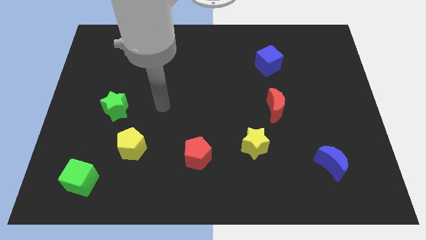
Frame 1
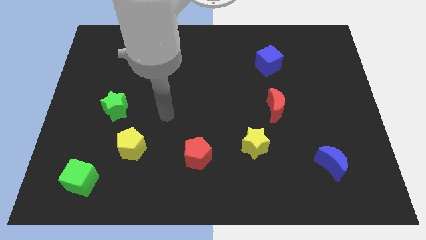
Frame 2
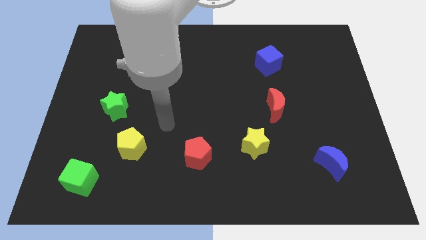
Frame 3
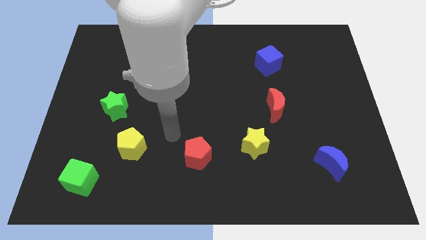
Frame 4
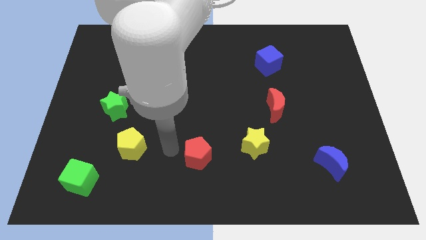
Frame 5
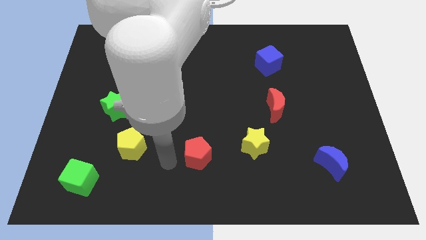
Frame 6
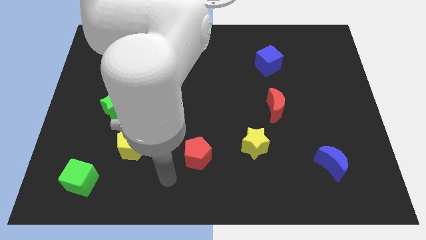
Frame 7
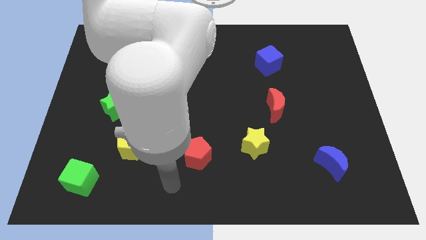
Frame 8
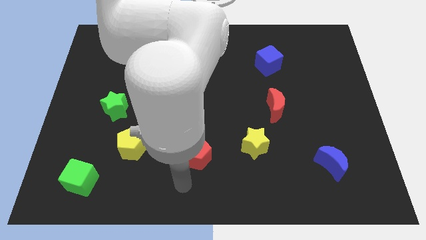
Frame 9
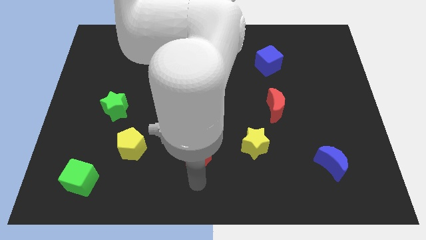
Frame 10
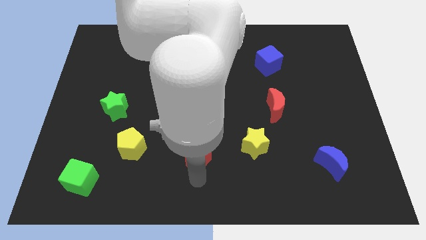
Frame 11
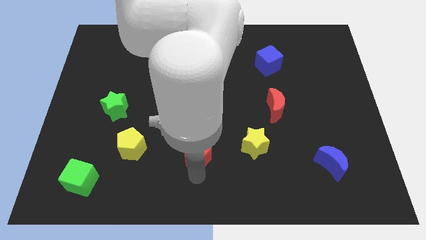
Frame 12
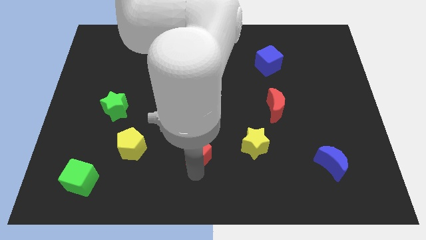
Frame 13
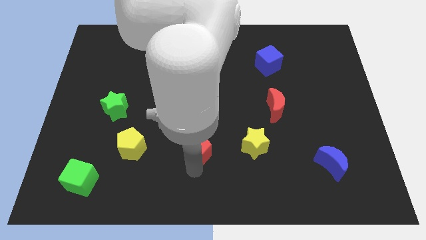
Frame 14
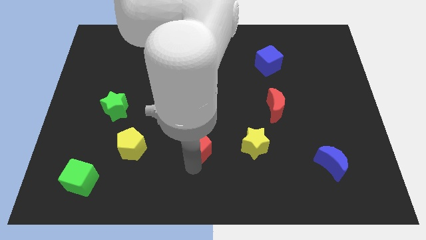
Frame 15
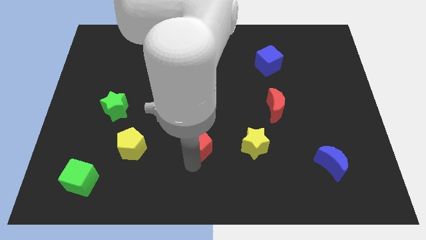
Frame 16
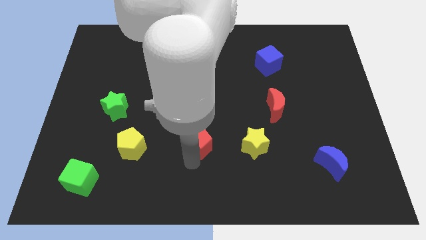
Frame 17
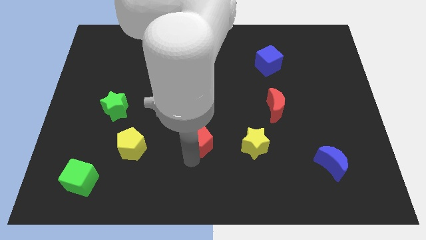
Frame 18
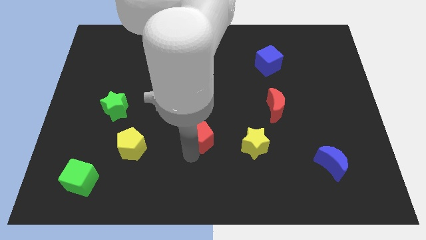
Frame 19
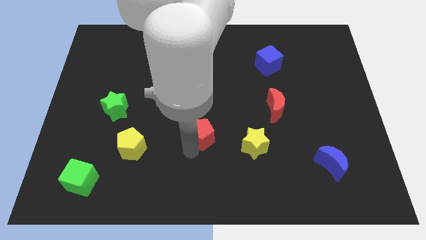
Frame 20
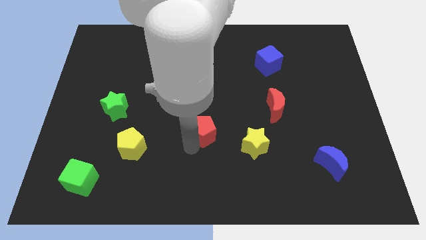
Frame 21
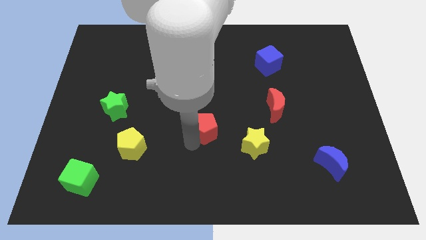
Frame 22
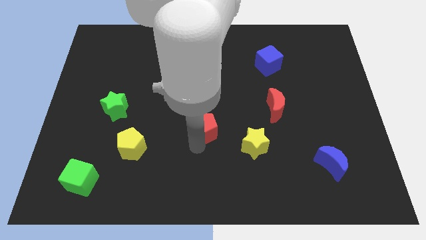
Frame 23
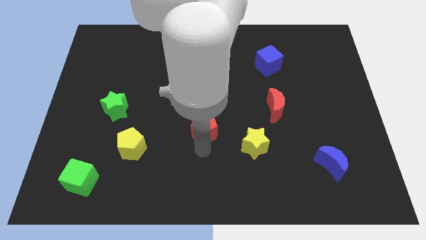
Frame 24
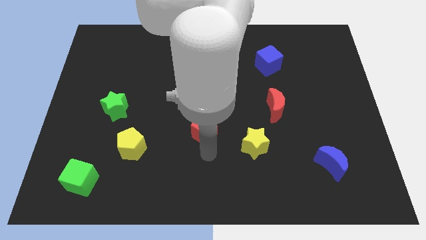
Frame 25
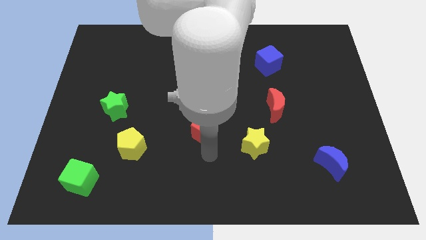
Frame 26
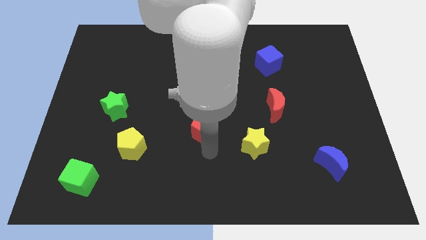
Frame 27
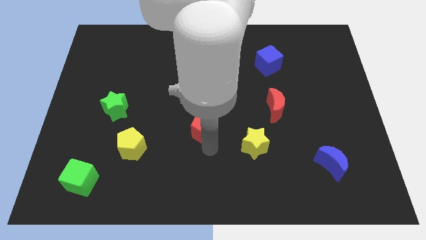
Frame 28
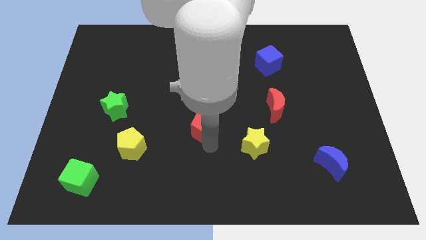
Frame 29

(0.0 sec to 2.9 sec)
push the red pentagon upwards a little

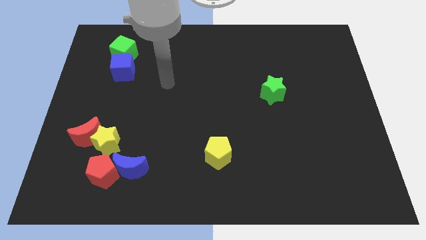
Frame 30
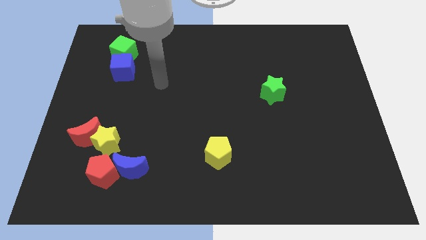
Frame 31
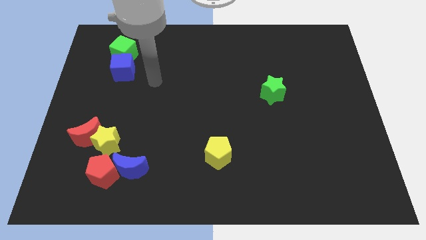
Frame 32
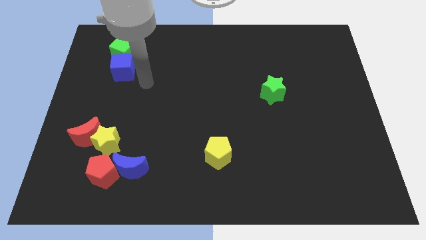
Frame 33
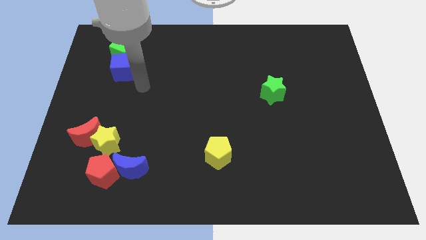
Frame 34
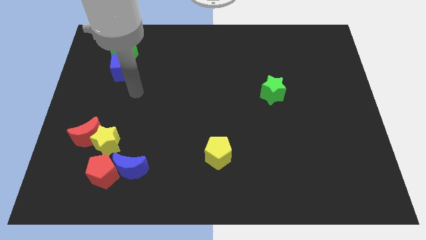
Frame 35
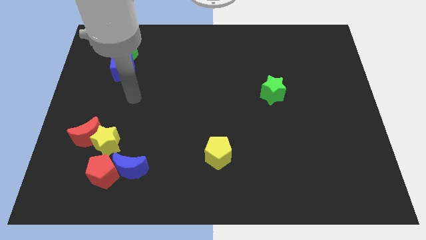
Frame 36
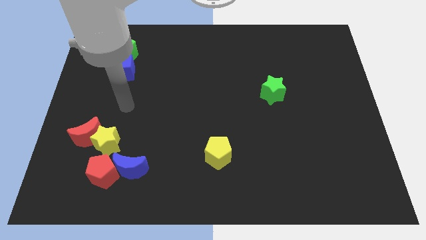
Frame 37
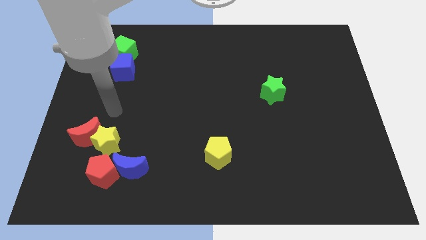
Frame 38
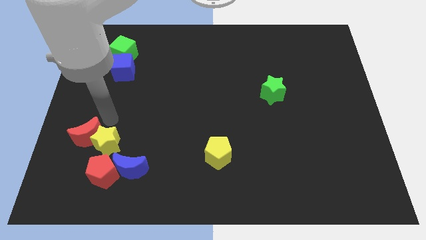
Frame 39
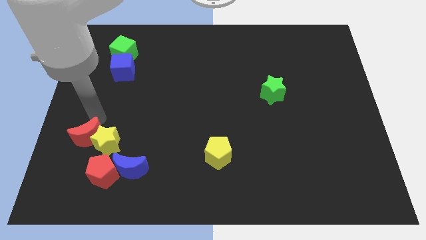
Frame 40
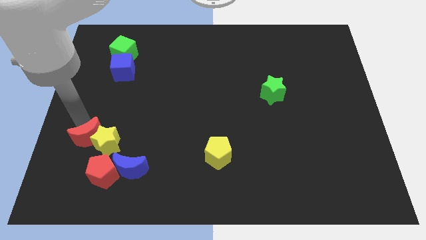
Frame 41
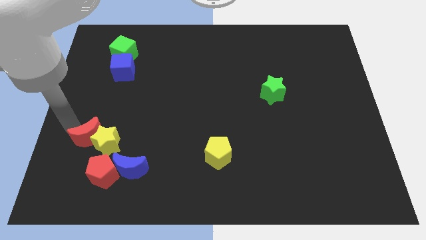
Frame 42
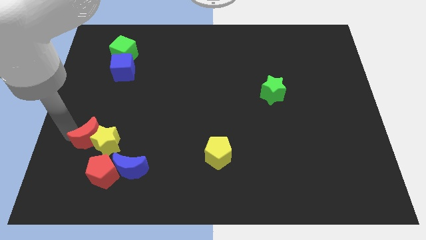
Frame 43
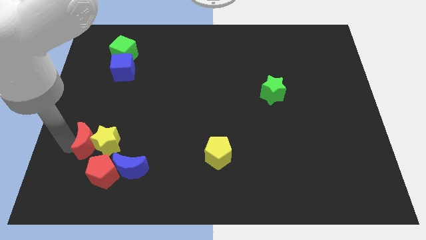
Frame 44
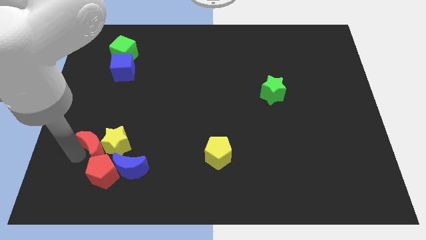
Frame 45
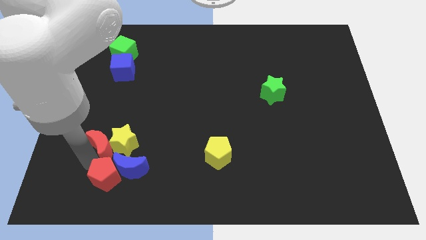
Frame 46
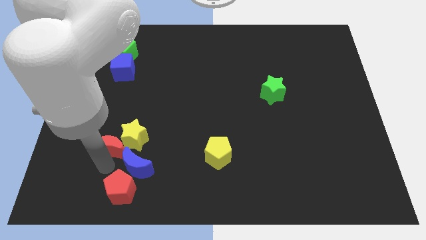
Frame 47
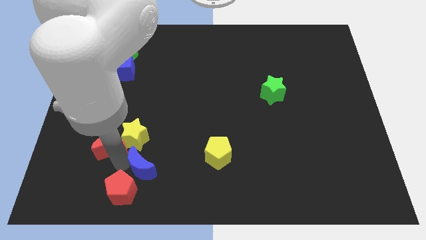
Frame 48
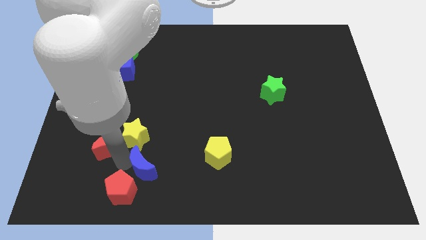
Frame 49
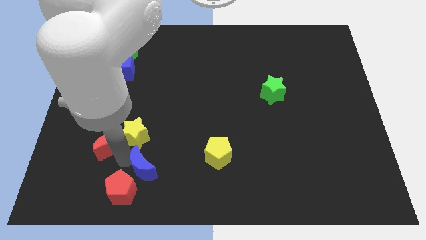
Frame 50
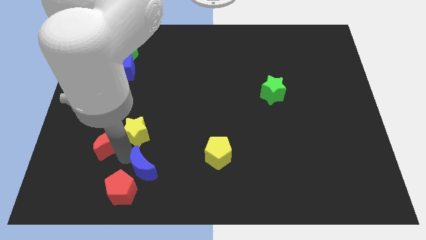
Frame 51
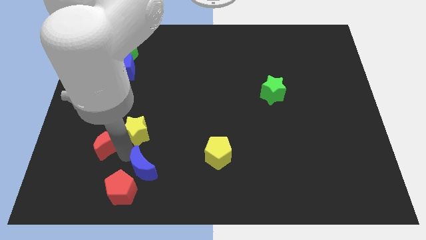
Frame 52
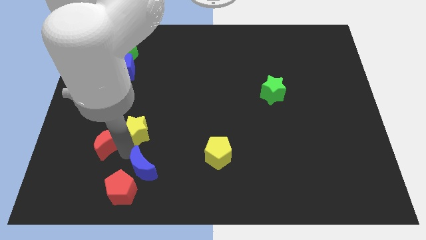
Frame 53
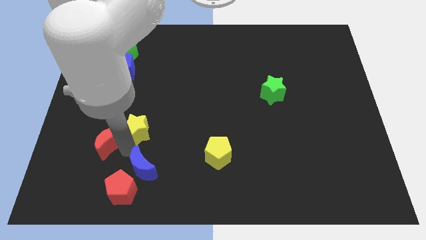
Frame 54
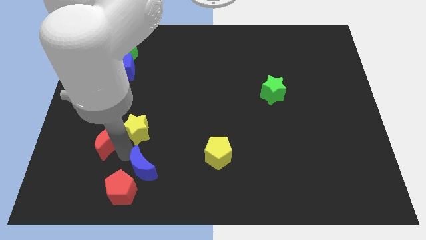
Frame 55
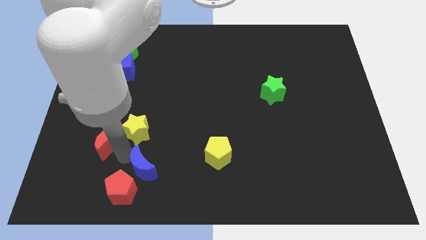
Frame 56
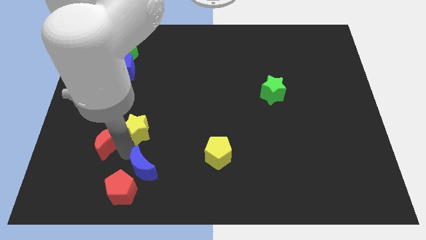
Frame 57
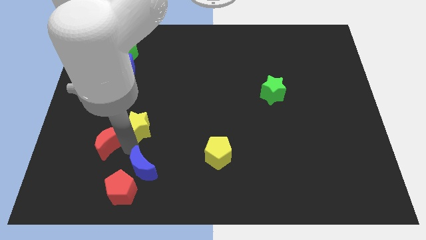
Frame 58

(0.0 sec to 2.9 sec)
move the yellow star a little bit up and then right

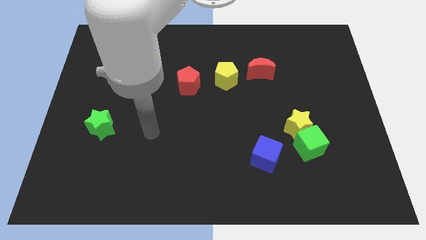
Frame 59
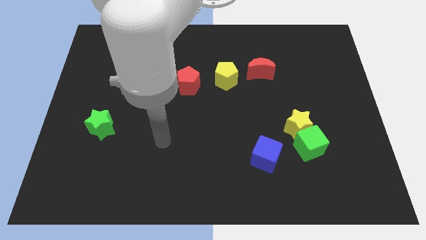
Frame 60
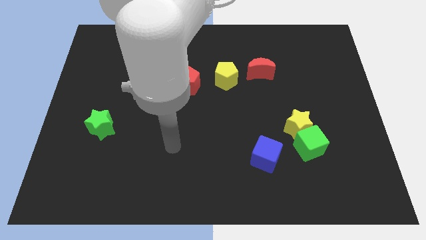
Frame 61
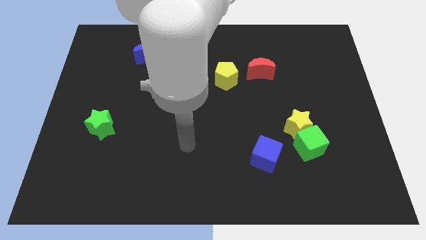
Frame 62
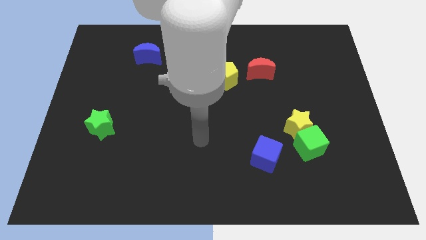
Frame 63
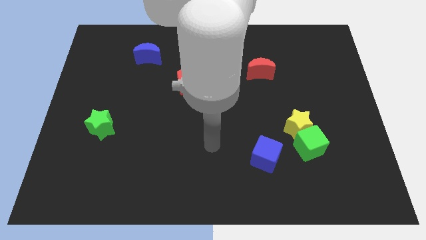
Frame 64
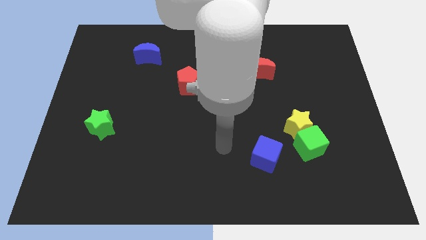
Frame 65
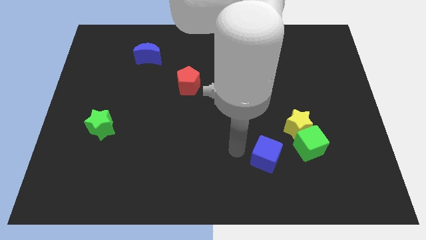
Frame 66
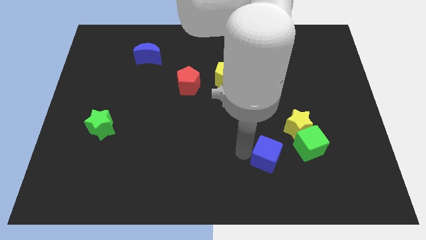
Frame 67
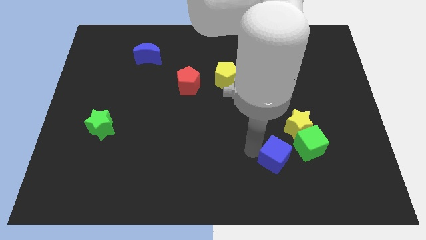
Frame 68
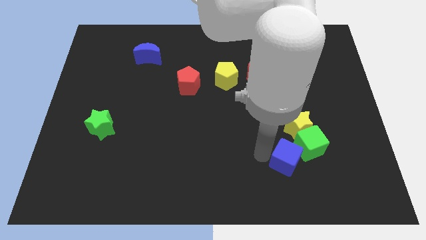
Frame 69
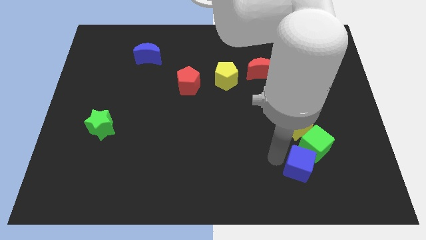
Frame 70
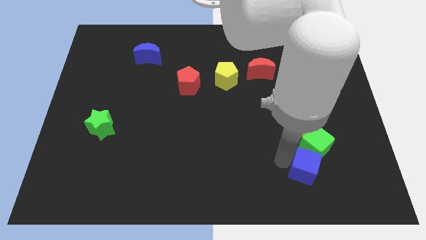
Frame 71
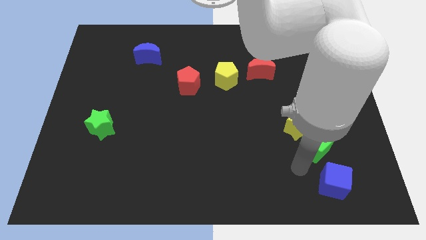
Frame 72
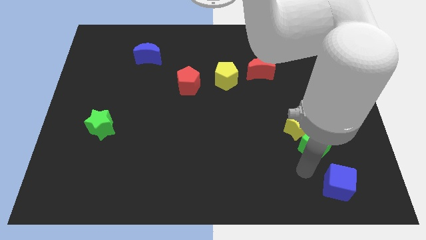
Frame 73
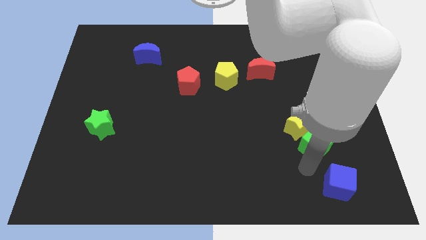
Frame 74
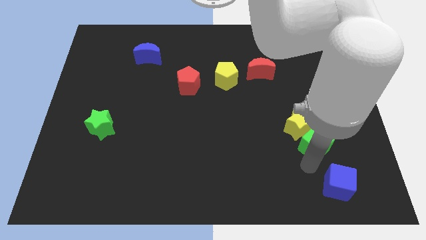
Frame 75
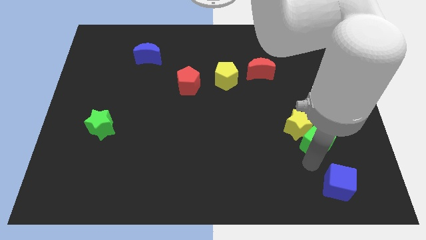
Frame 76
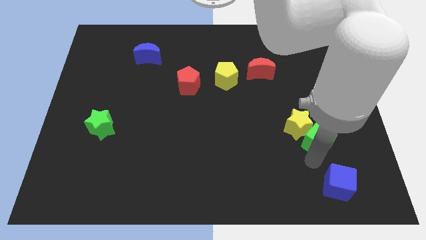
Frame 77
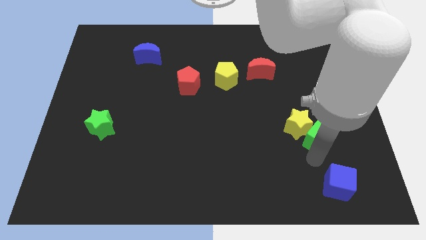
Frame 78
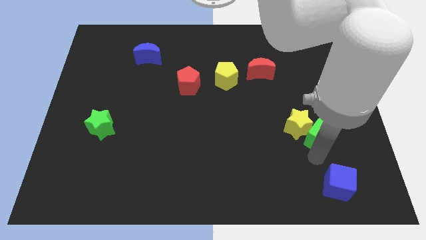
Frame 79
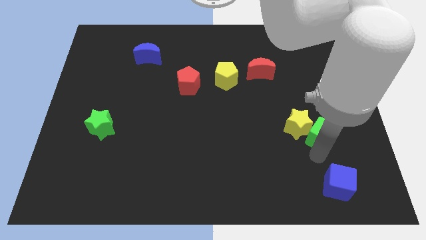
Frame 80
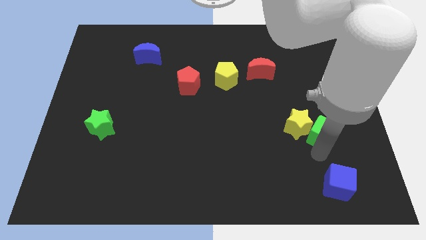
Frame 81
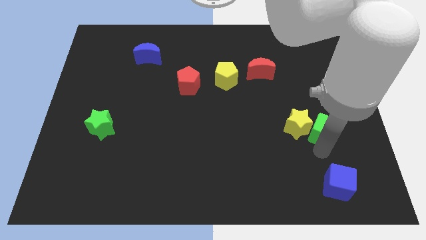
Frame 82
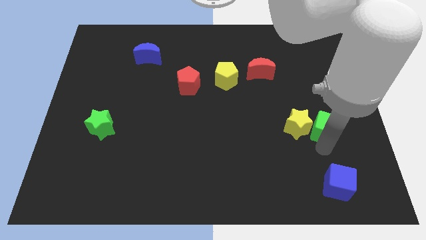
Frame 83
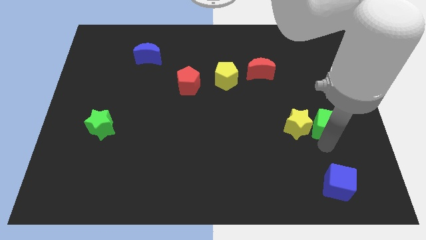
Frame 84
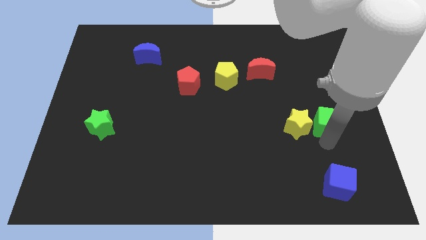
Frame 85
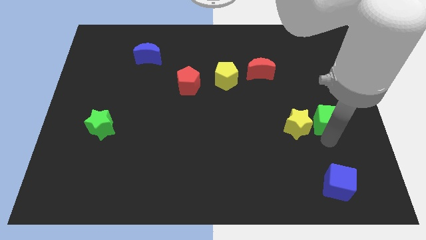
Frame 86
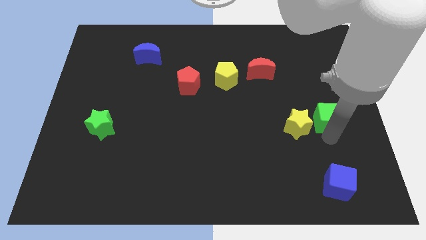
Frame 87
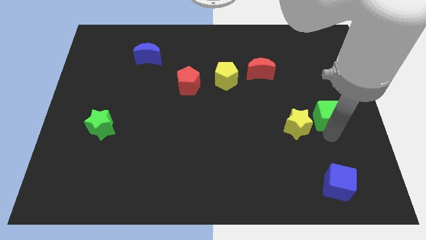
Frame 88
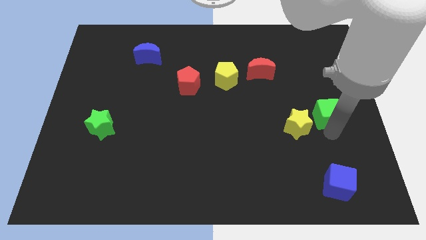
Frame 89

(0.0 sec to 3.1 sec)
push the green cube upwards a bit
